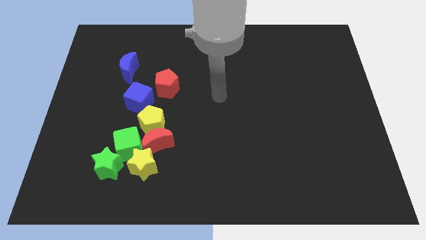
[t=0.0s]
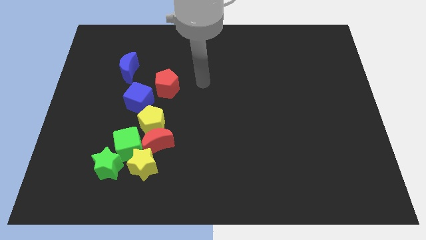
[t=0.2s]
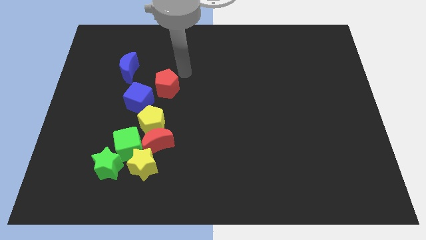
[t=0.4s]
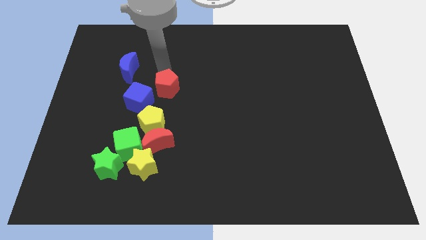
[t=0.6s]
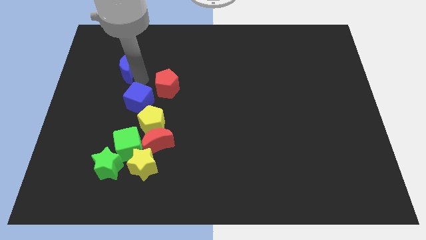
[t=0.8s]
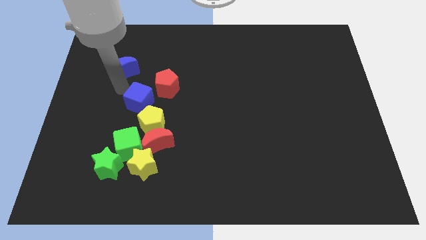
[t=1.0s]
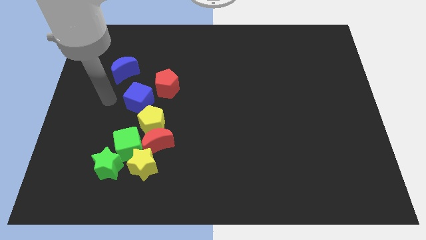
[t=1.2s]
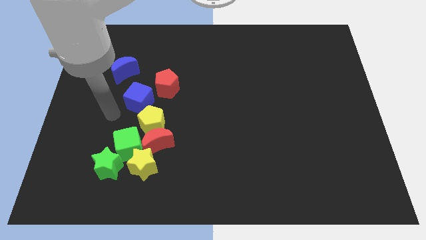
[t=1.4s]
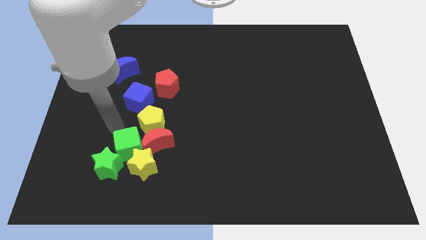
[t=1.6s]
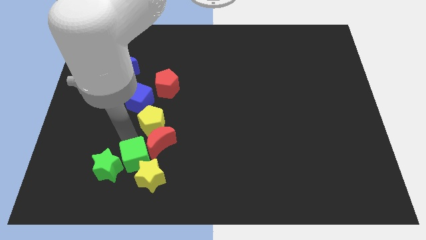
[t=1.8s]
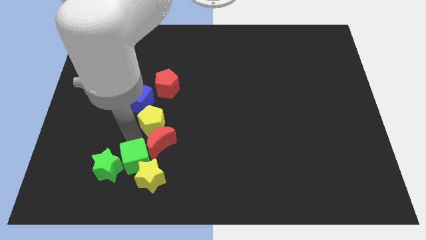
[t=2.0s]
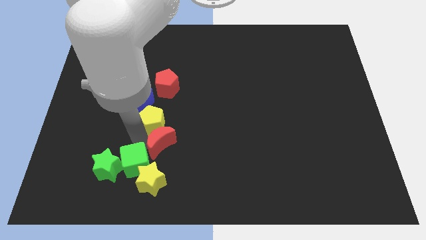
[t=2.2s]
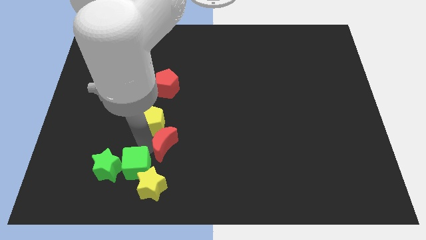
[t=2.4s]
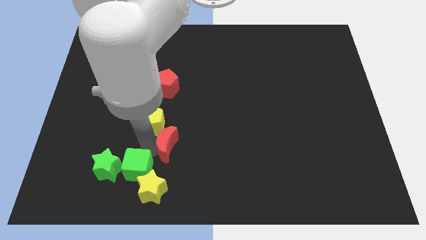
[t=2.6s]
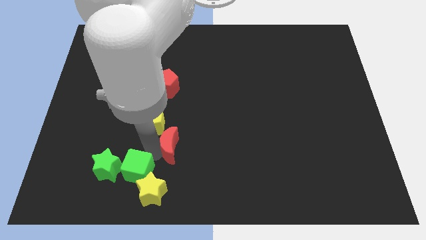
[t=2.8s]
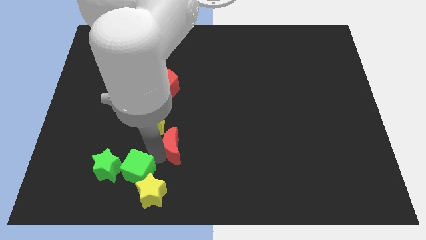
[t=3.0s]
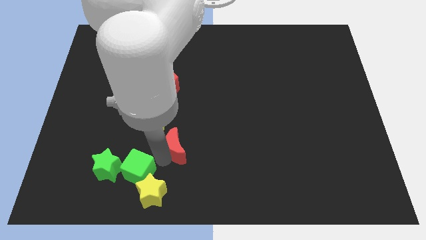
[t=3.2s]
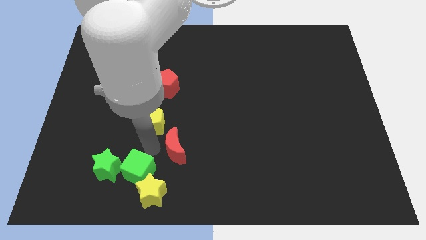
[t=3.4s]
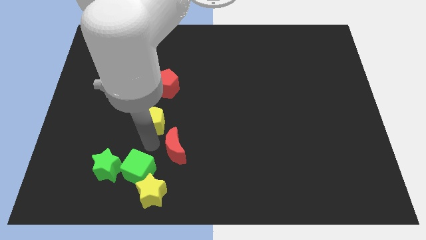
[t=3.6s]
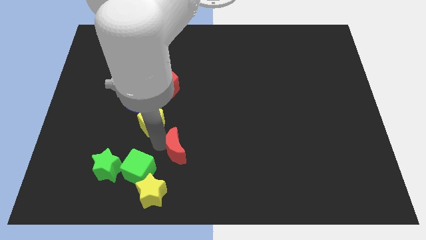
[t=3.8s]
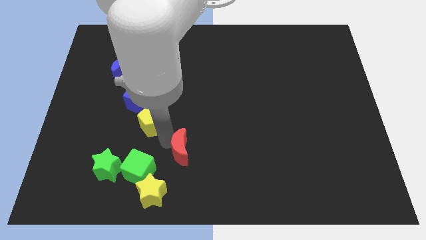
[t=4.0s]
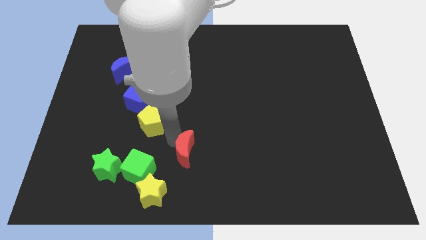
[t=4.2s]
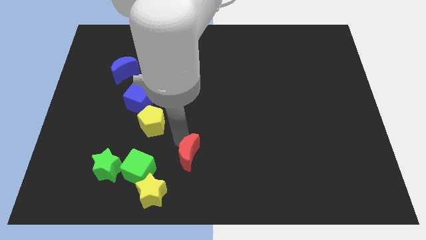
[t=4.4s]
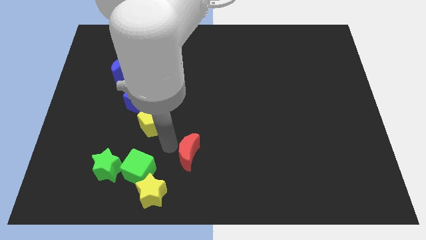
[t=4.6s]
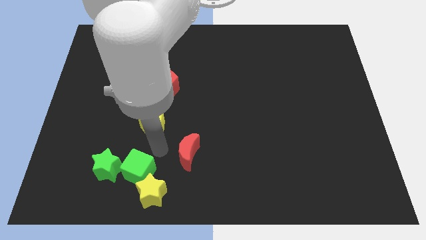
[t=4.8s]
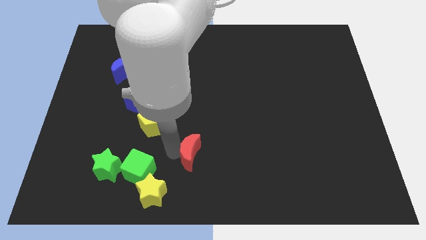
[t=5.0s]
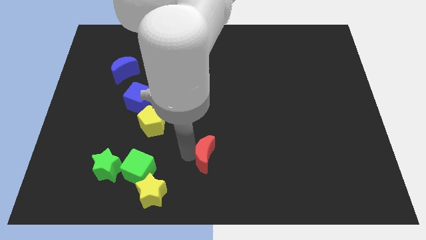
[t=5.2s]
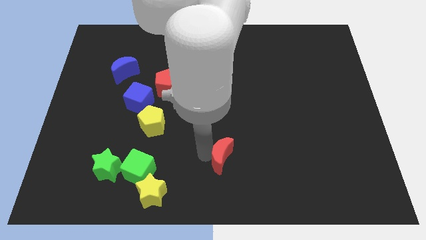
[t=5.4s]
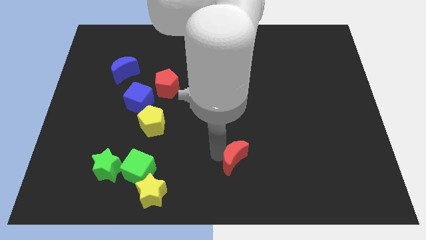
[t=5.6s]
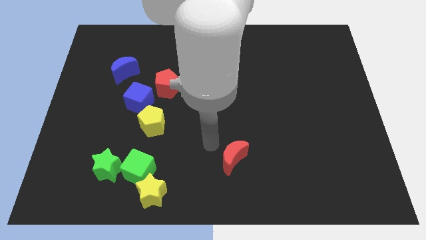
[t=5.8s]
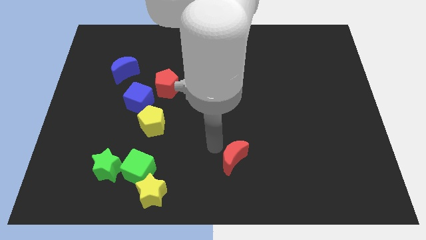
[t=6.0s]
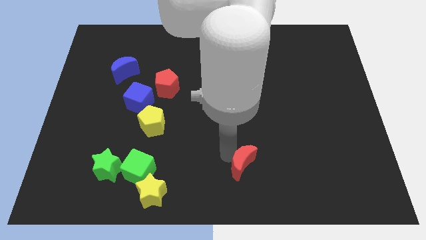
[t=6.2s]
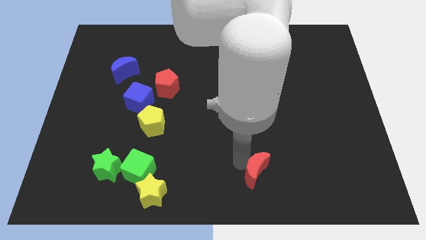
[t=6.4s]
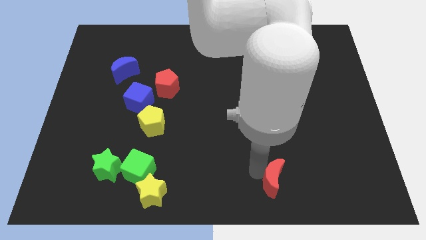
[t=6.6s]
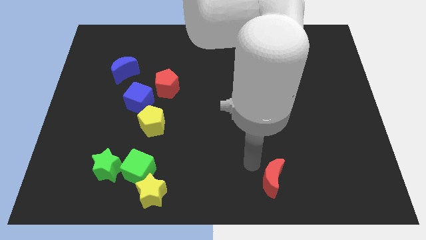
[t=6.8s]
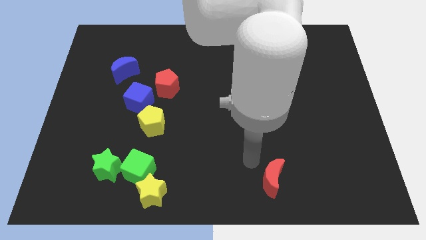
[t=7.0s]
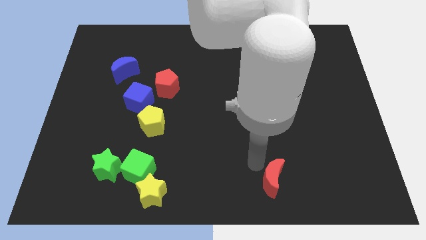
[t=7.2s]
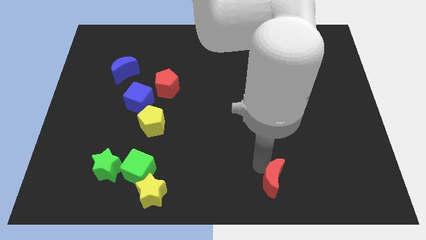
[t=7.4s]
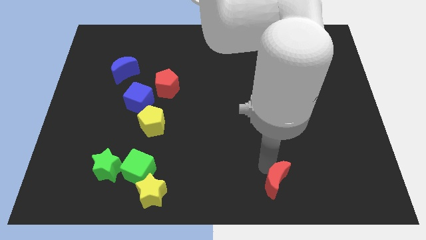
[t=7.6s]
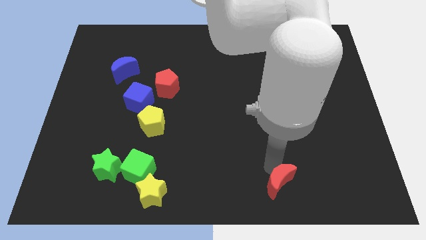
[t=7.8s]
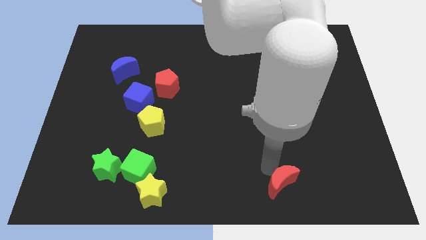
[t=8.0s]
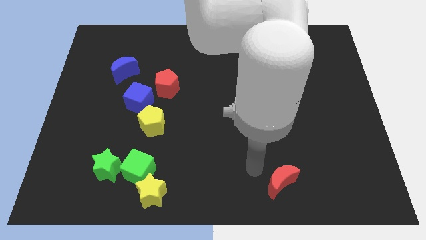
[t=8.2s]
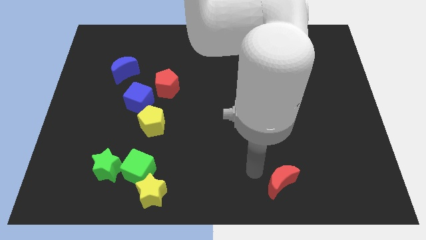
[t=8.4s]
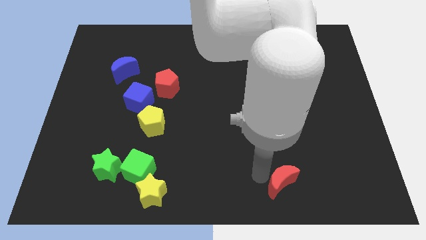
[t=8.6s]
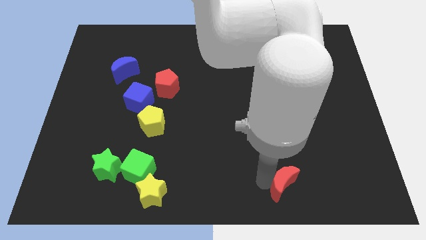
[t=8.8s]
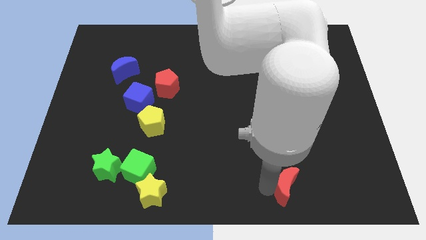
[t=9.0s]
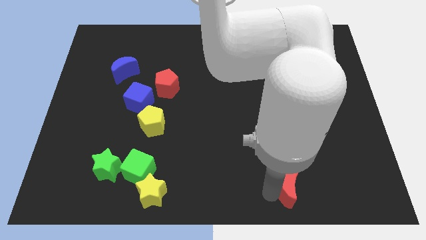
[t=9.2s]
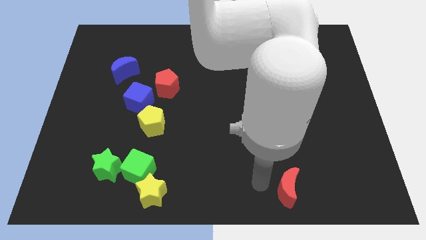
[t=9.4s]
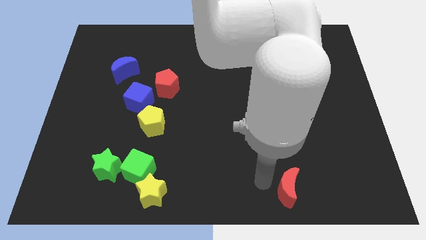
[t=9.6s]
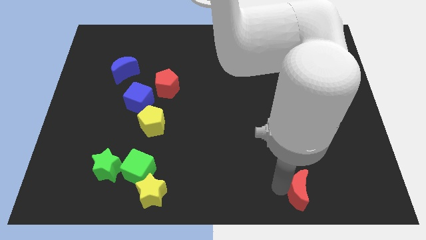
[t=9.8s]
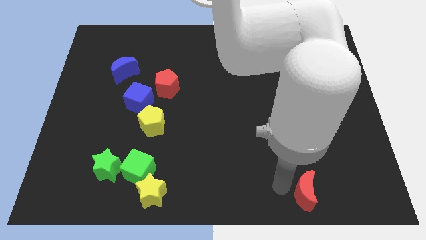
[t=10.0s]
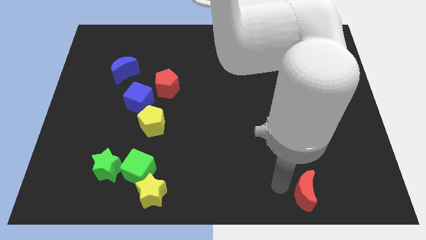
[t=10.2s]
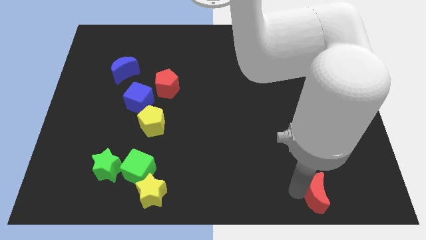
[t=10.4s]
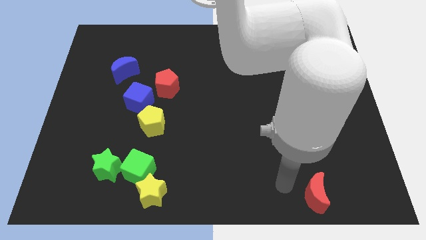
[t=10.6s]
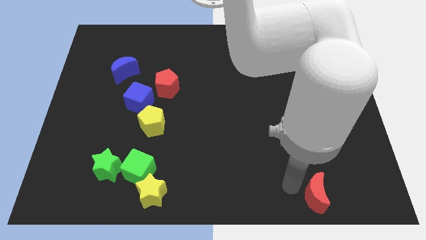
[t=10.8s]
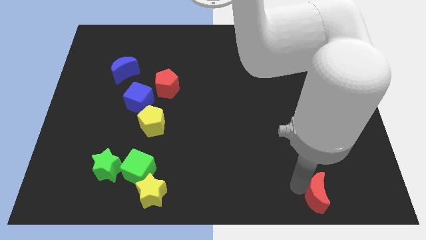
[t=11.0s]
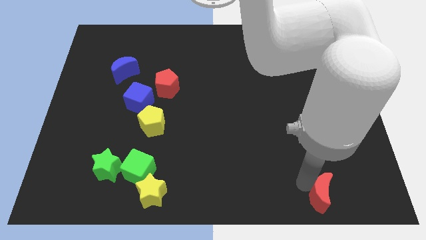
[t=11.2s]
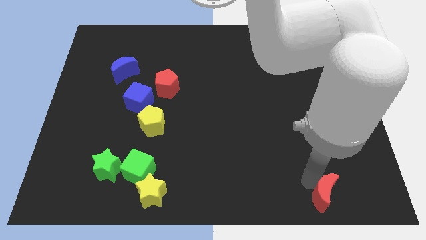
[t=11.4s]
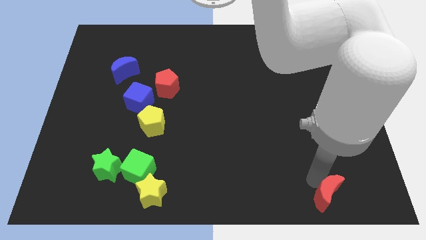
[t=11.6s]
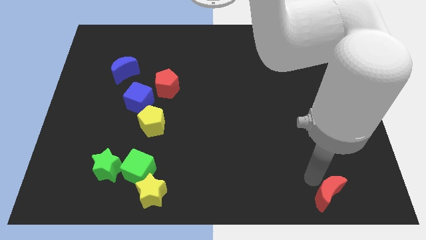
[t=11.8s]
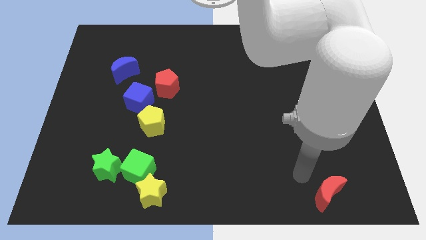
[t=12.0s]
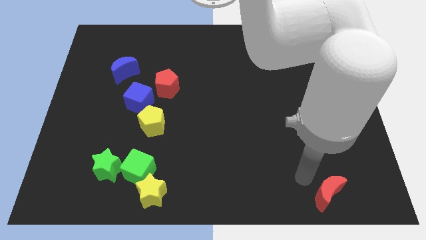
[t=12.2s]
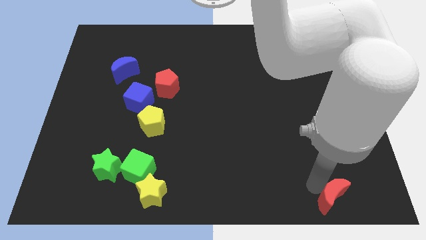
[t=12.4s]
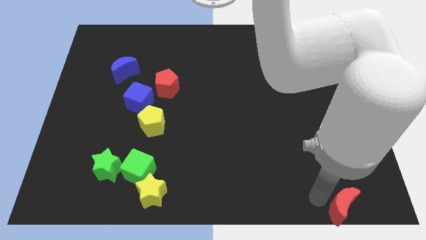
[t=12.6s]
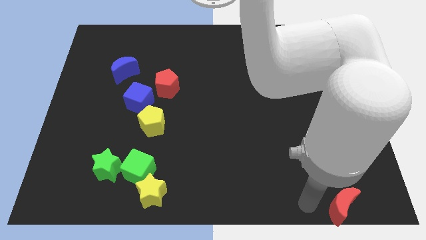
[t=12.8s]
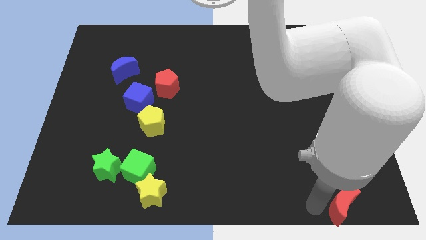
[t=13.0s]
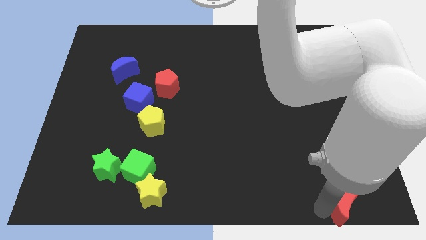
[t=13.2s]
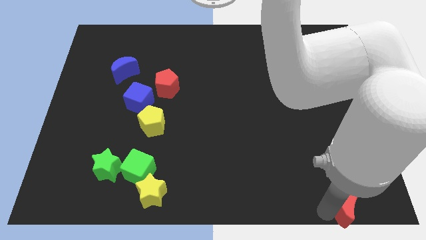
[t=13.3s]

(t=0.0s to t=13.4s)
put the red moon to the lower right corner
